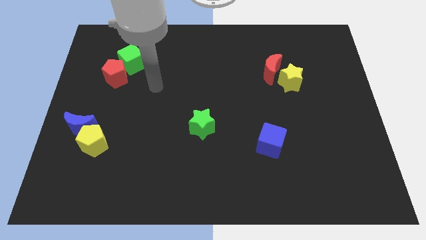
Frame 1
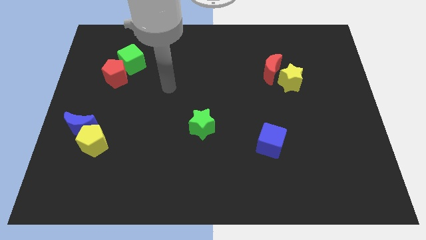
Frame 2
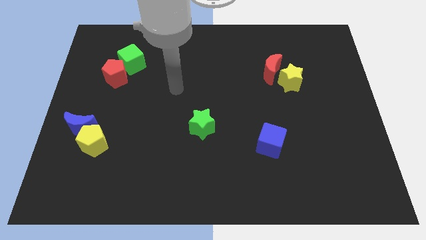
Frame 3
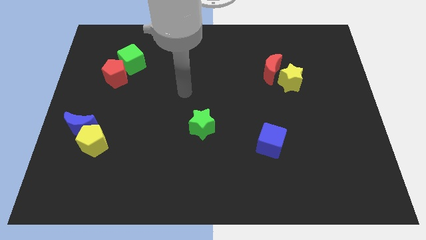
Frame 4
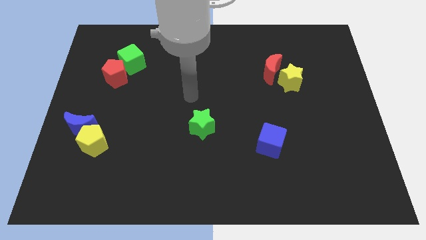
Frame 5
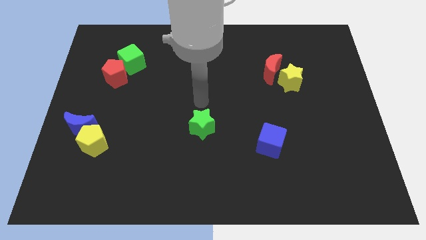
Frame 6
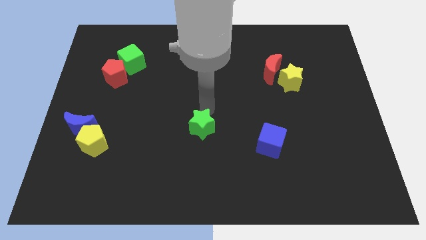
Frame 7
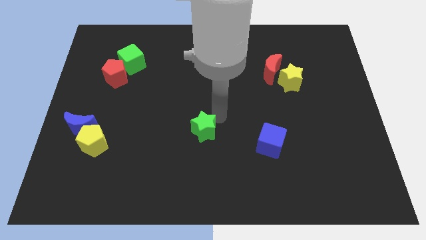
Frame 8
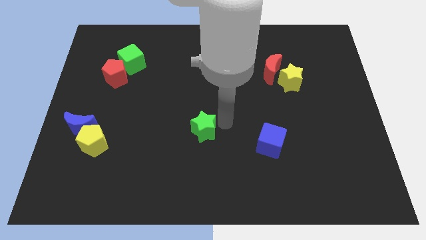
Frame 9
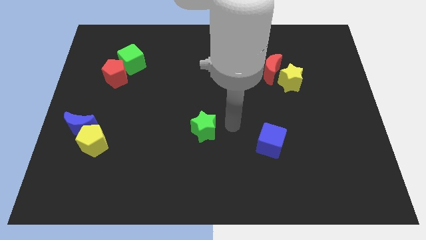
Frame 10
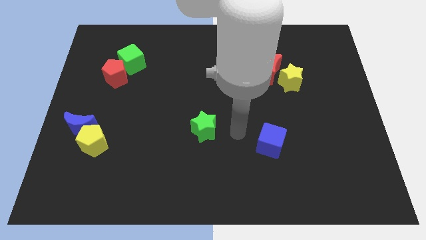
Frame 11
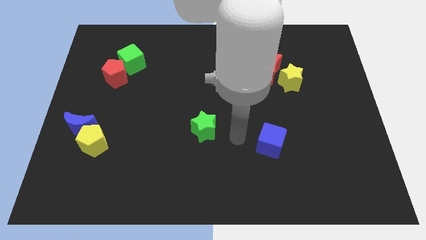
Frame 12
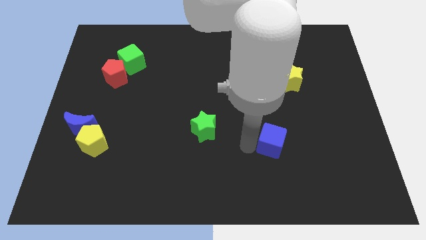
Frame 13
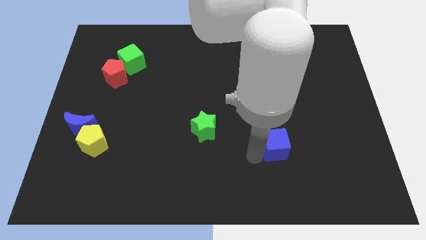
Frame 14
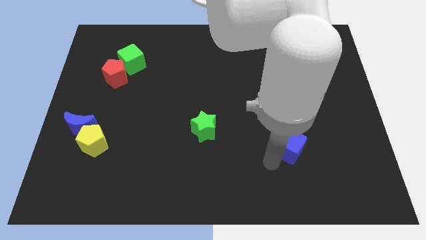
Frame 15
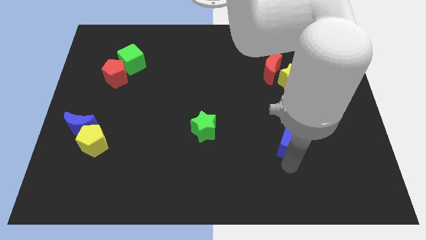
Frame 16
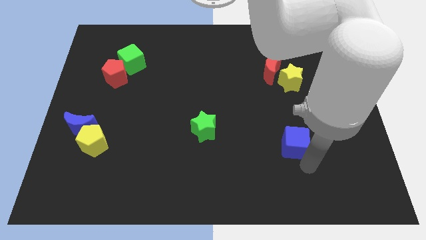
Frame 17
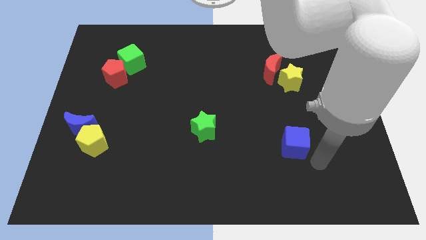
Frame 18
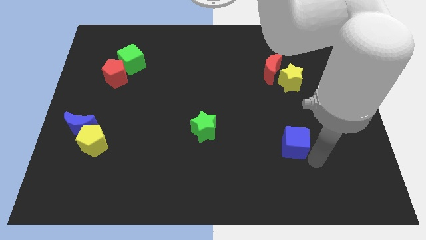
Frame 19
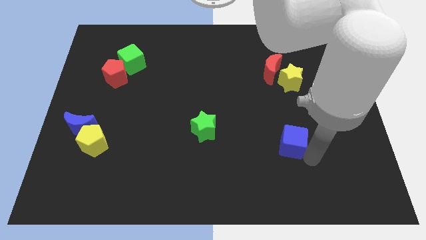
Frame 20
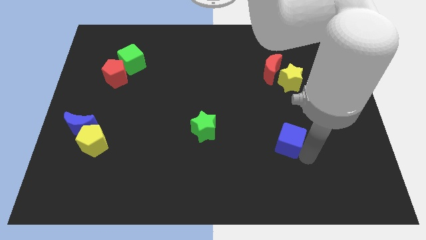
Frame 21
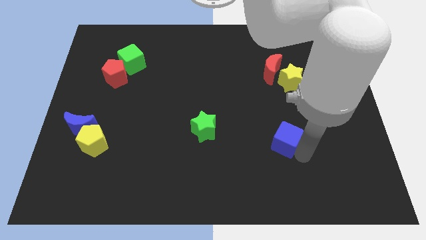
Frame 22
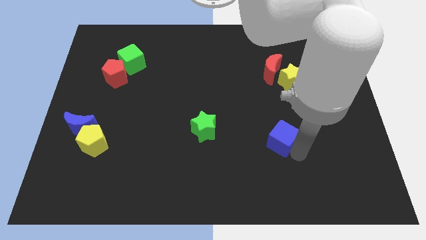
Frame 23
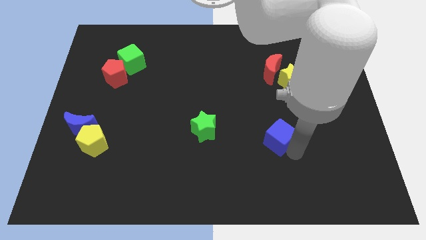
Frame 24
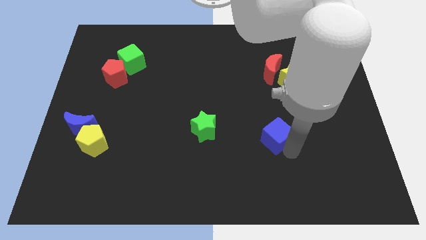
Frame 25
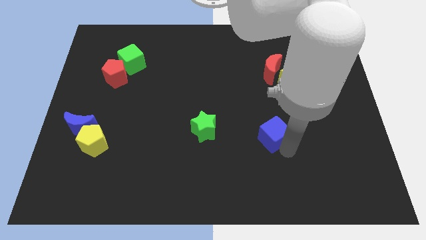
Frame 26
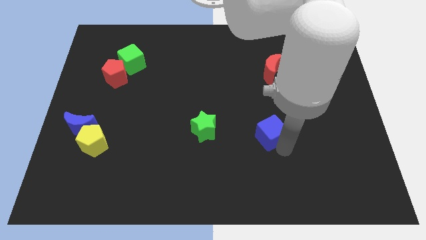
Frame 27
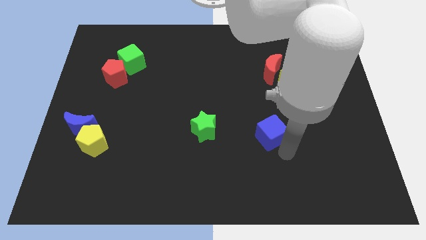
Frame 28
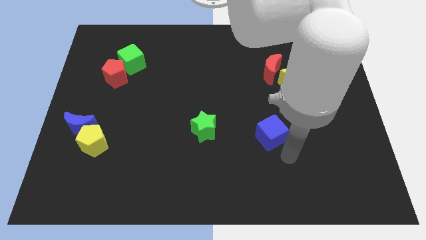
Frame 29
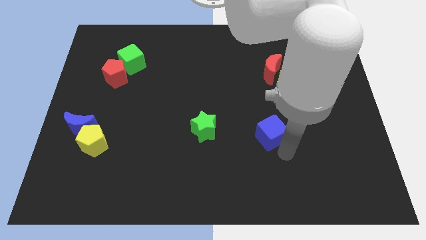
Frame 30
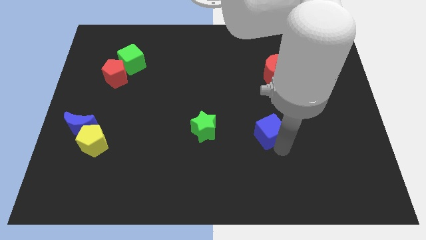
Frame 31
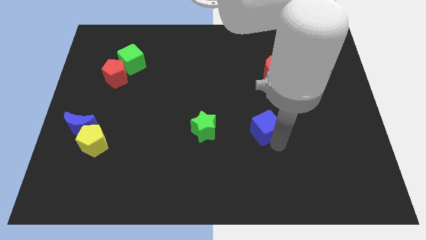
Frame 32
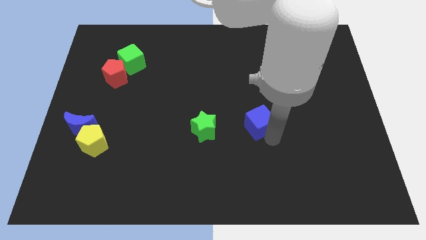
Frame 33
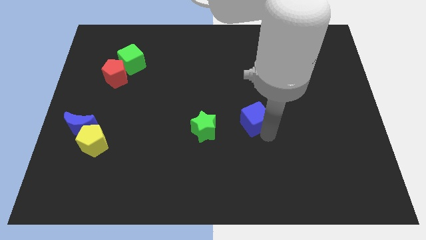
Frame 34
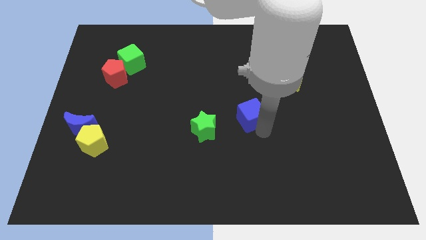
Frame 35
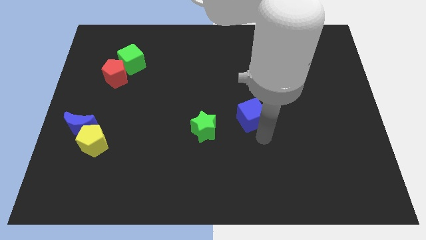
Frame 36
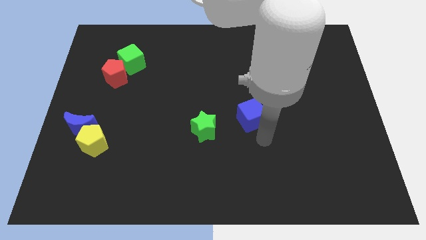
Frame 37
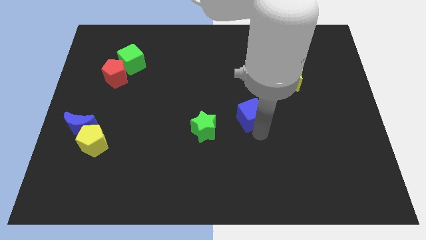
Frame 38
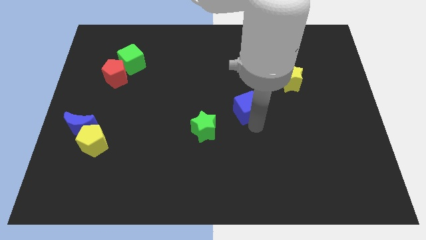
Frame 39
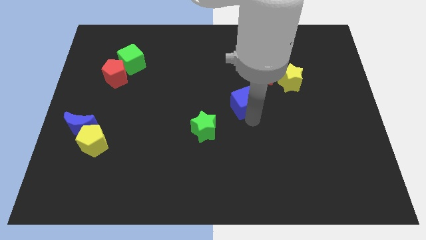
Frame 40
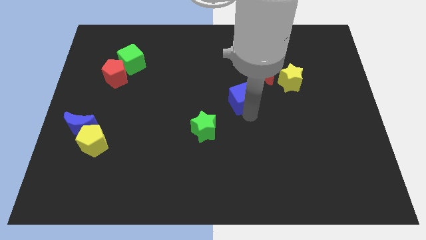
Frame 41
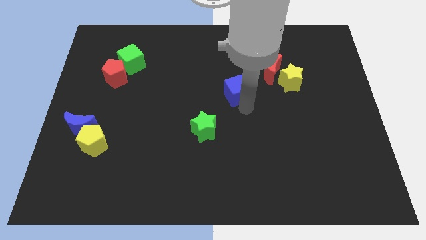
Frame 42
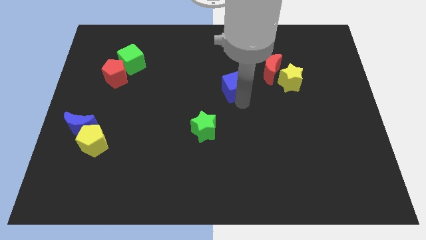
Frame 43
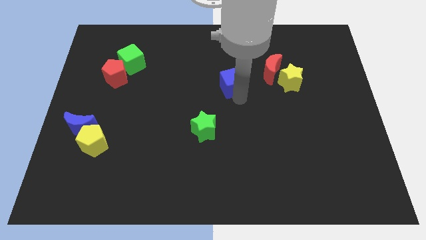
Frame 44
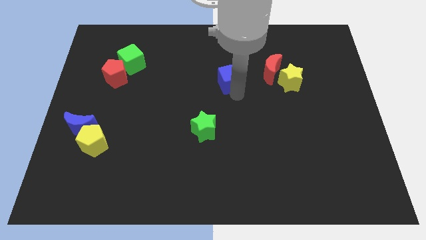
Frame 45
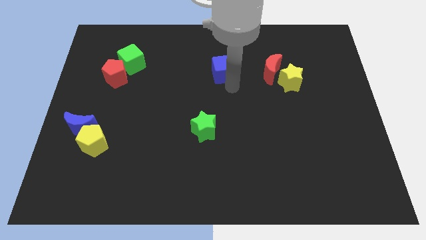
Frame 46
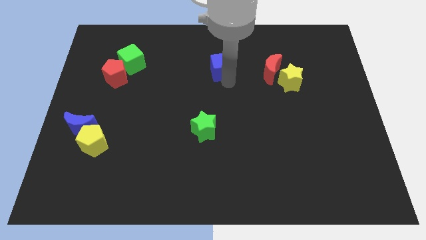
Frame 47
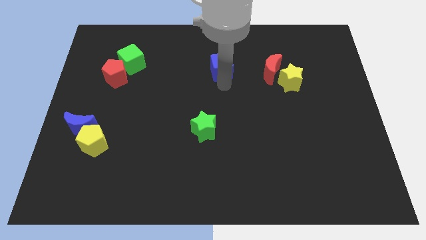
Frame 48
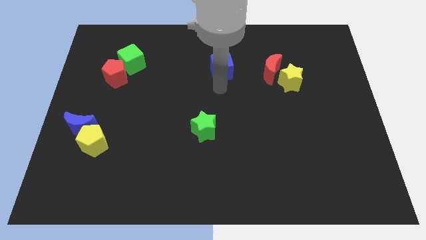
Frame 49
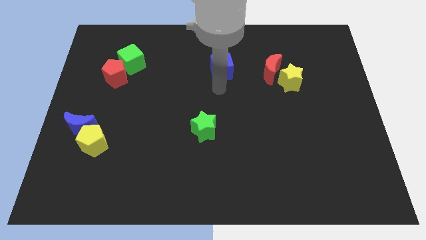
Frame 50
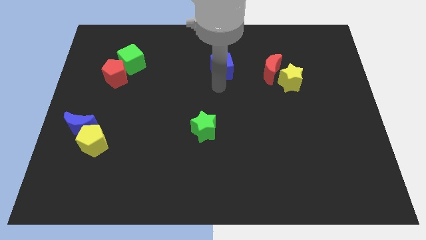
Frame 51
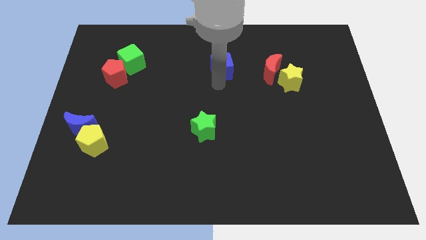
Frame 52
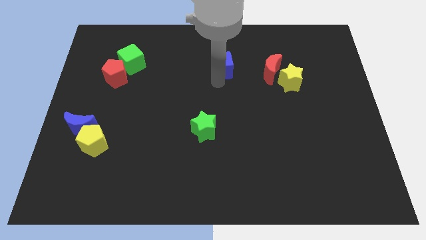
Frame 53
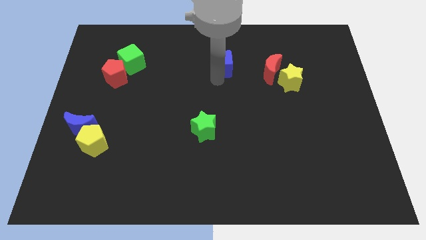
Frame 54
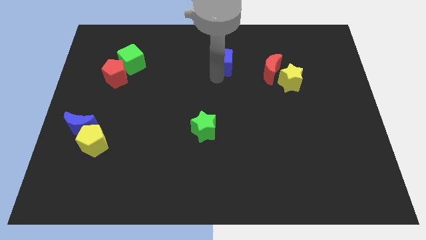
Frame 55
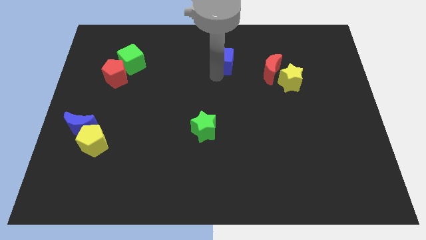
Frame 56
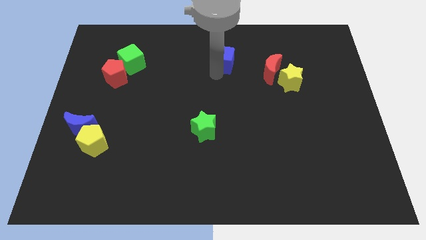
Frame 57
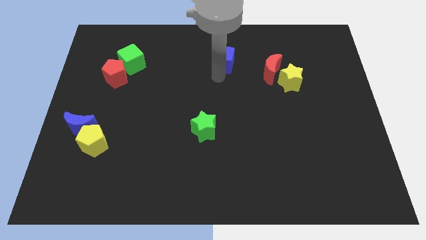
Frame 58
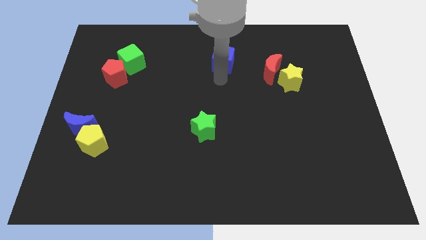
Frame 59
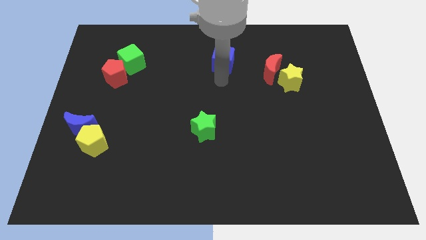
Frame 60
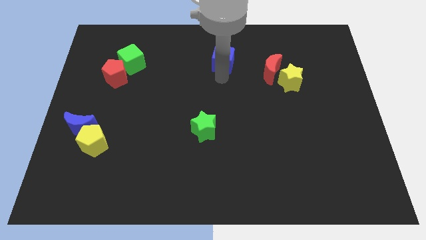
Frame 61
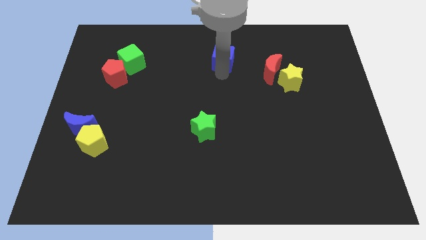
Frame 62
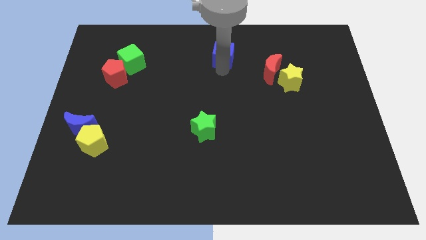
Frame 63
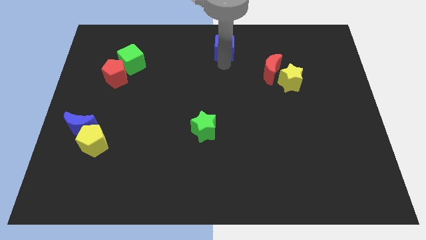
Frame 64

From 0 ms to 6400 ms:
push the blue cube to the top
